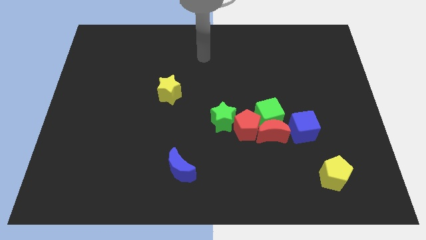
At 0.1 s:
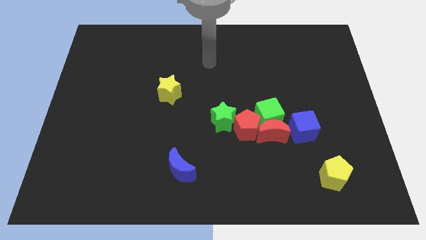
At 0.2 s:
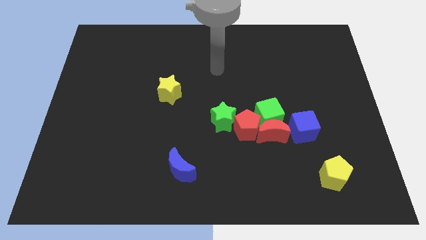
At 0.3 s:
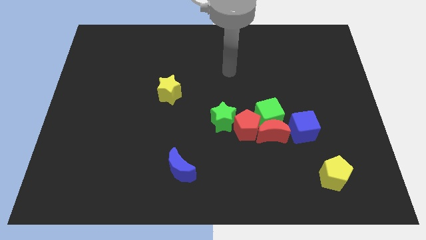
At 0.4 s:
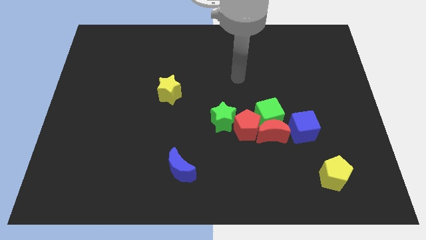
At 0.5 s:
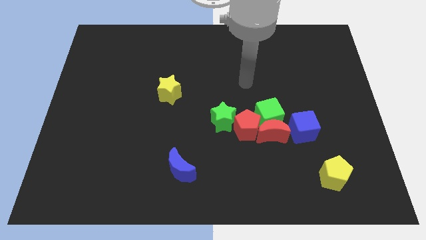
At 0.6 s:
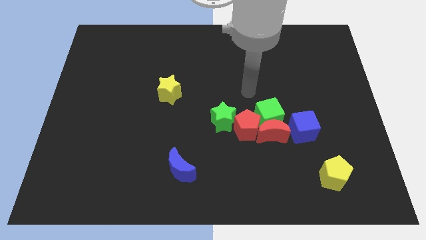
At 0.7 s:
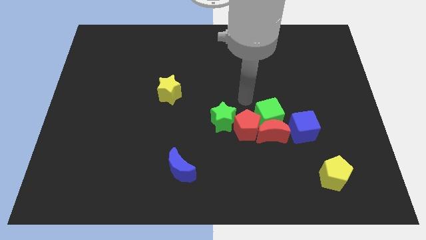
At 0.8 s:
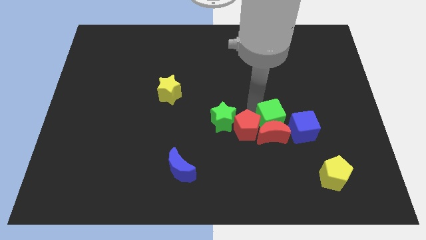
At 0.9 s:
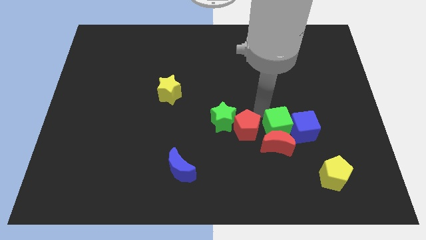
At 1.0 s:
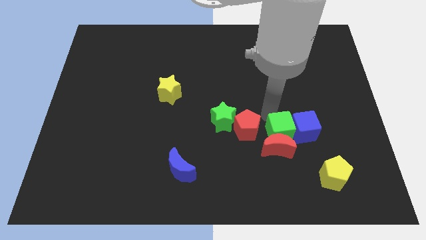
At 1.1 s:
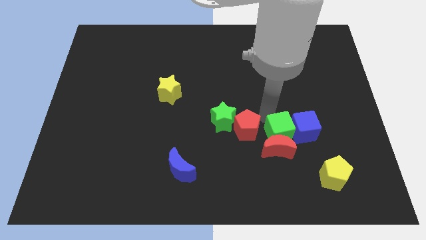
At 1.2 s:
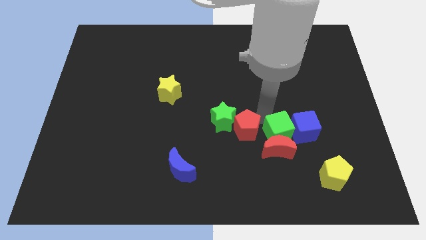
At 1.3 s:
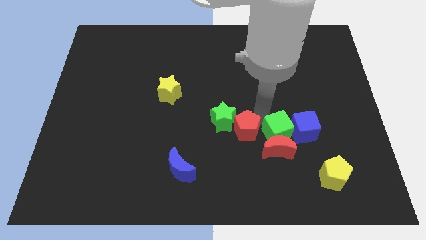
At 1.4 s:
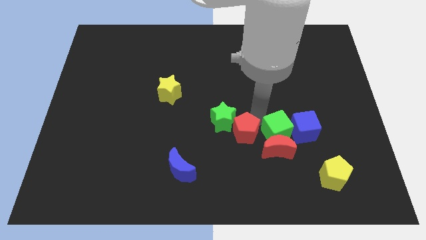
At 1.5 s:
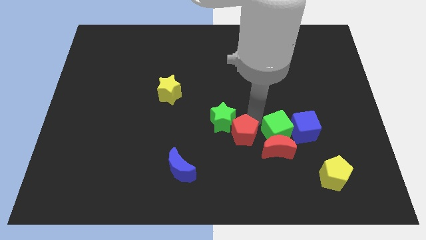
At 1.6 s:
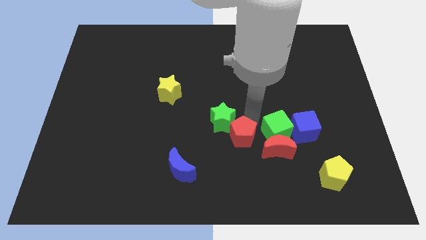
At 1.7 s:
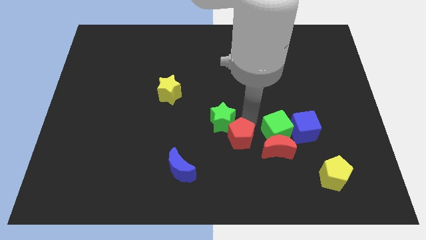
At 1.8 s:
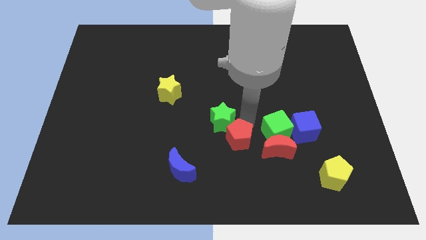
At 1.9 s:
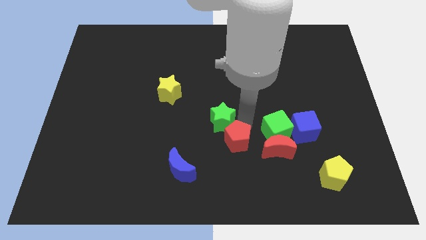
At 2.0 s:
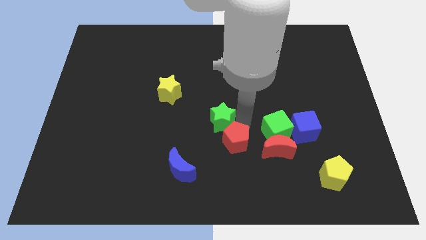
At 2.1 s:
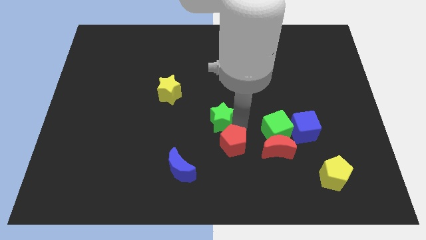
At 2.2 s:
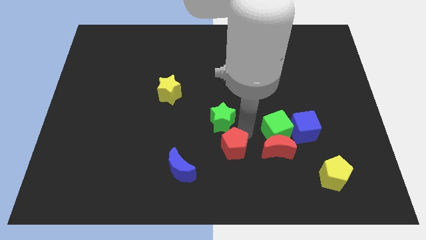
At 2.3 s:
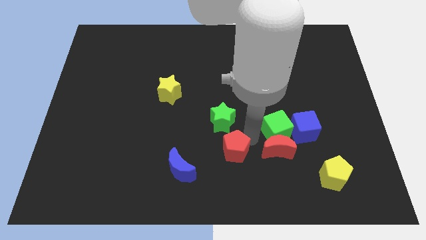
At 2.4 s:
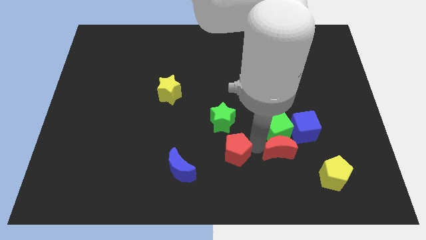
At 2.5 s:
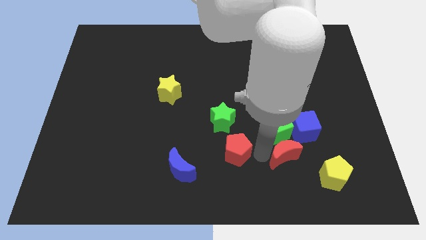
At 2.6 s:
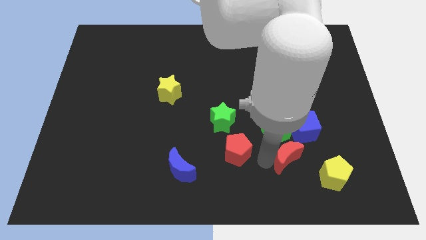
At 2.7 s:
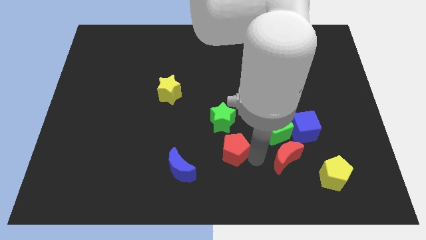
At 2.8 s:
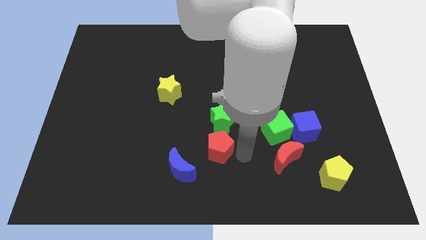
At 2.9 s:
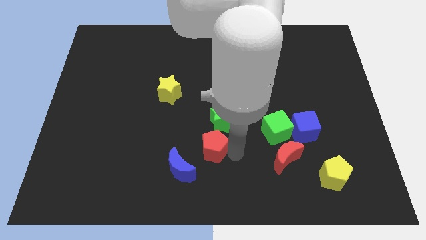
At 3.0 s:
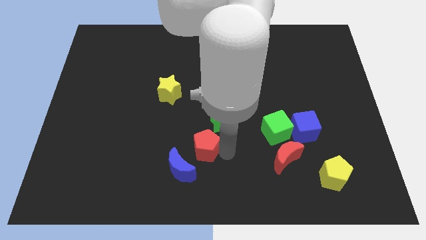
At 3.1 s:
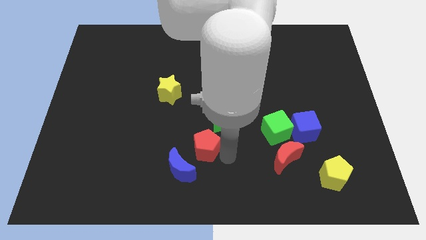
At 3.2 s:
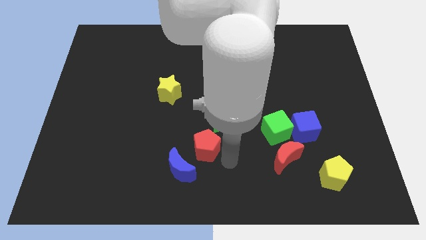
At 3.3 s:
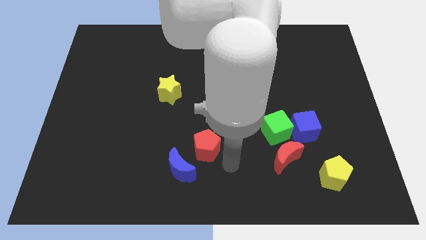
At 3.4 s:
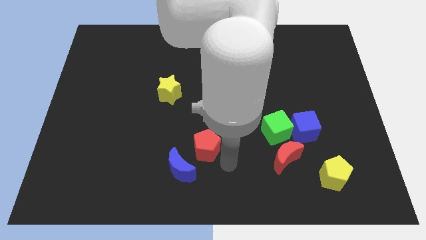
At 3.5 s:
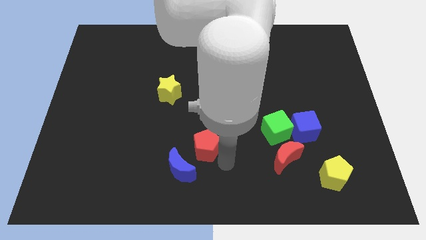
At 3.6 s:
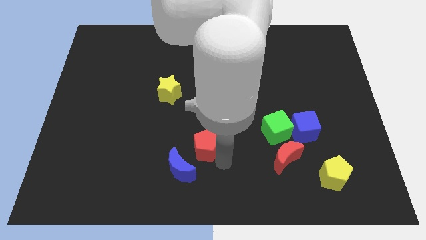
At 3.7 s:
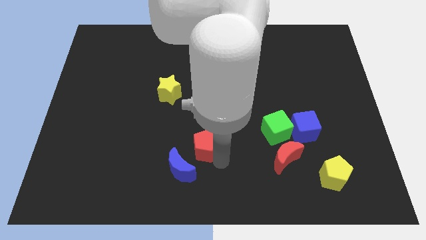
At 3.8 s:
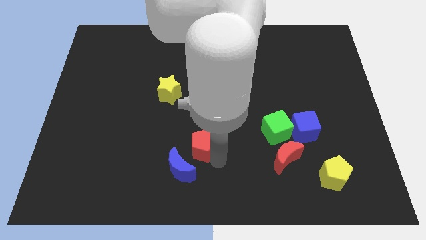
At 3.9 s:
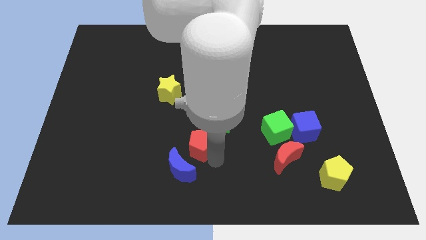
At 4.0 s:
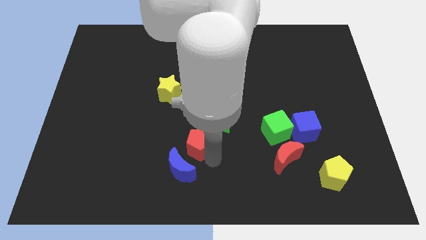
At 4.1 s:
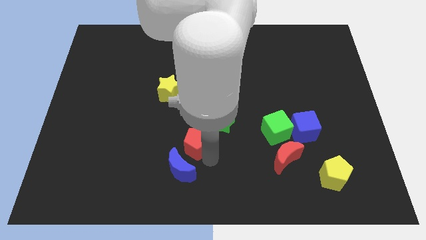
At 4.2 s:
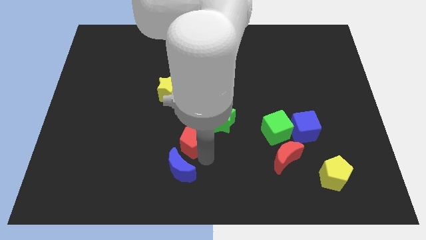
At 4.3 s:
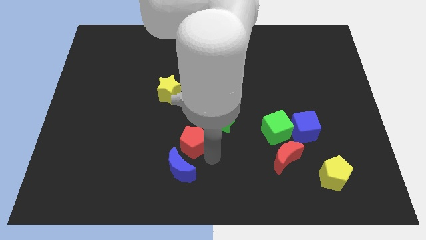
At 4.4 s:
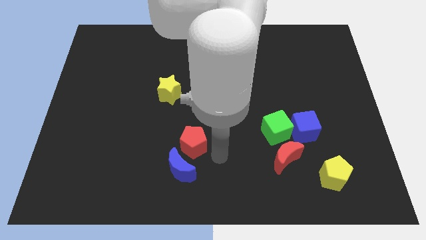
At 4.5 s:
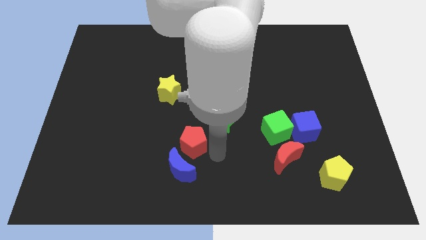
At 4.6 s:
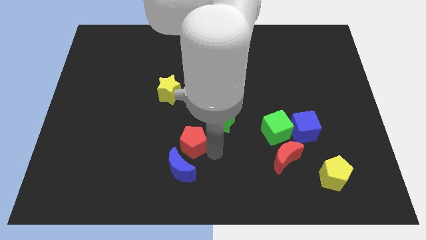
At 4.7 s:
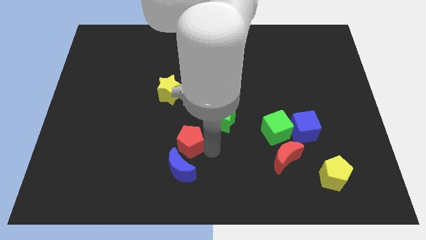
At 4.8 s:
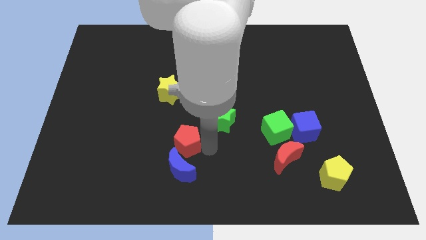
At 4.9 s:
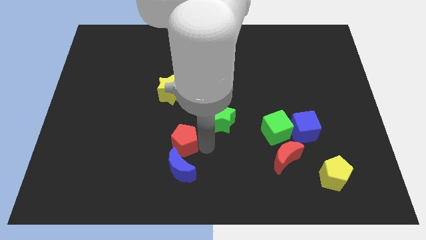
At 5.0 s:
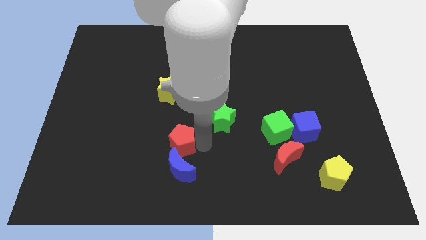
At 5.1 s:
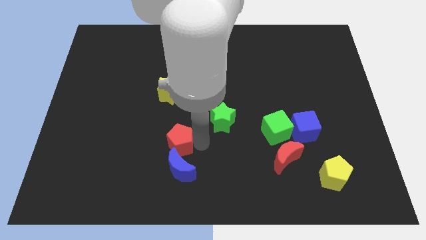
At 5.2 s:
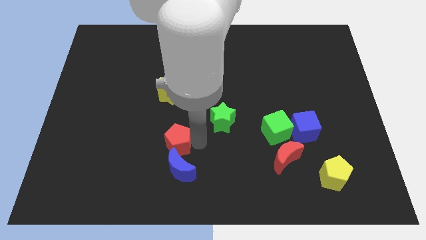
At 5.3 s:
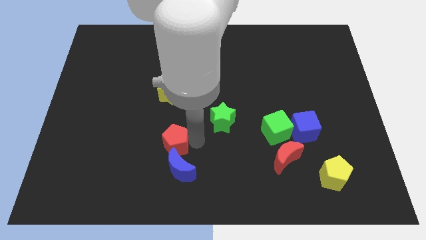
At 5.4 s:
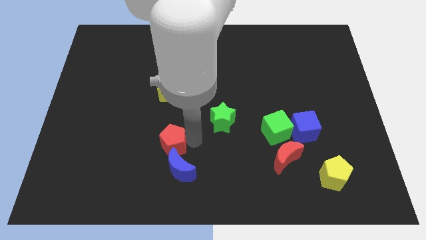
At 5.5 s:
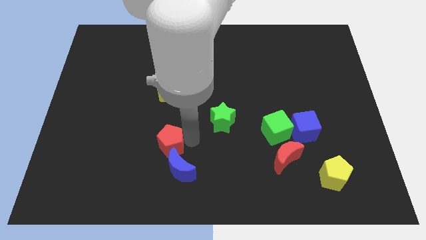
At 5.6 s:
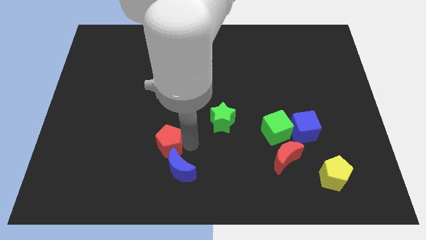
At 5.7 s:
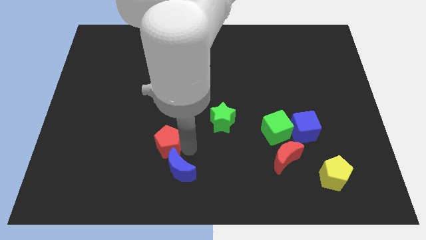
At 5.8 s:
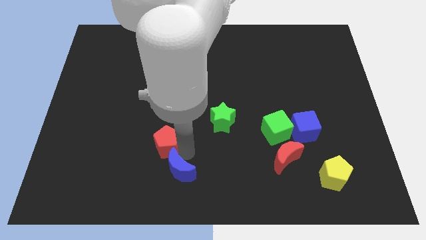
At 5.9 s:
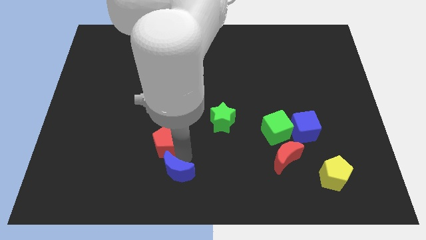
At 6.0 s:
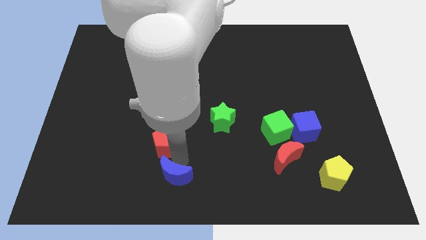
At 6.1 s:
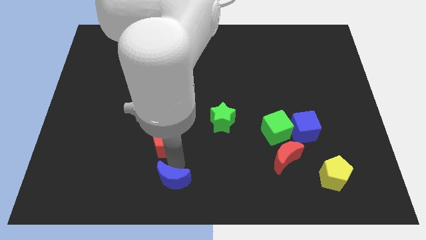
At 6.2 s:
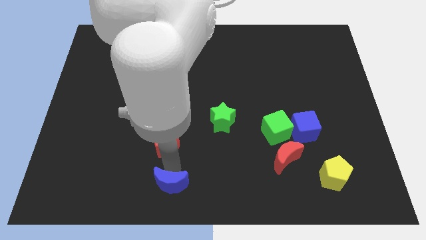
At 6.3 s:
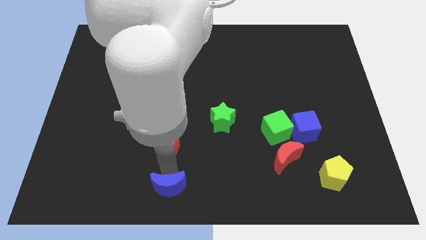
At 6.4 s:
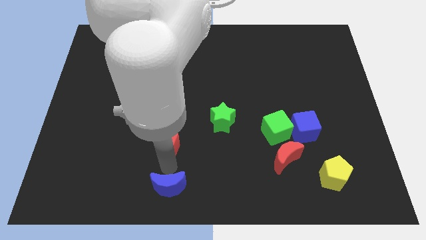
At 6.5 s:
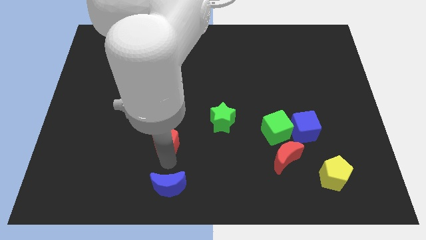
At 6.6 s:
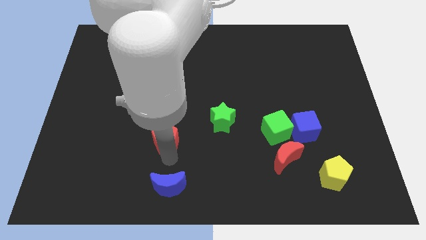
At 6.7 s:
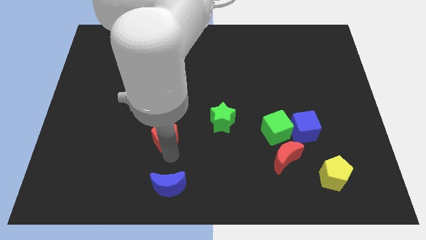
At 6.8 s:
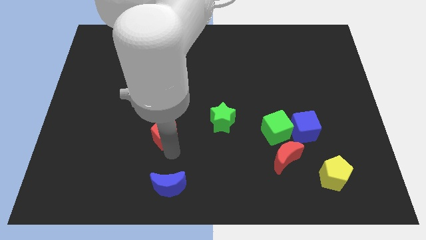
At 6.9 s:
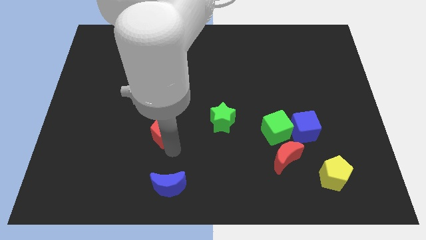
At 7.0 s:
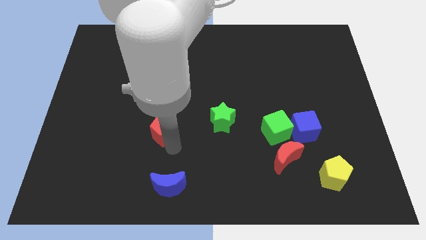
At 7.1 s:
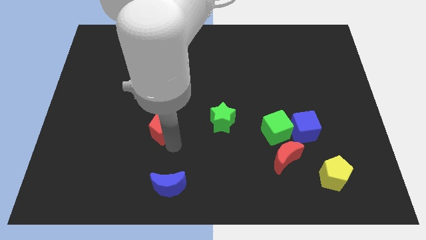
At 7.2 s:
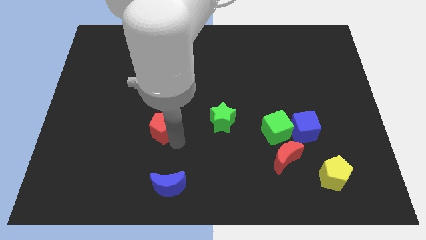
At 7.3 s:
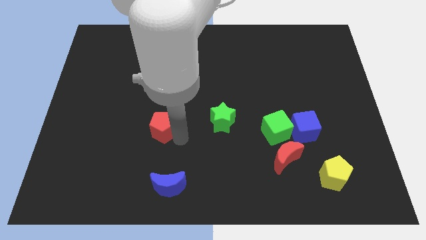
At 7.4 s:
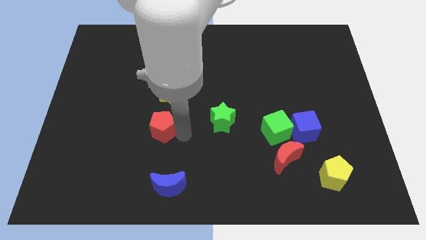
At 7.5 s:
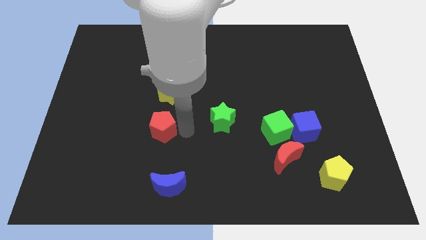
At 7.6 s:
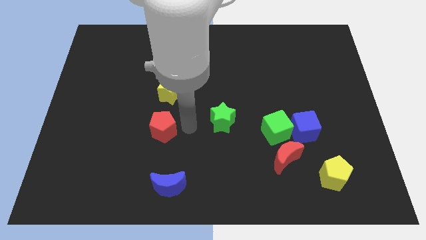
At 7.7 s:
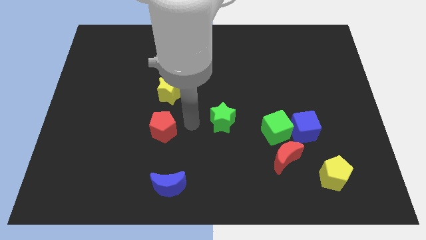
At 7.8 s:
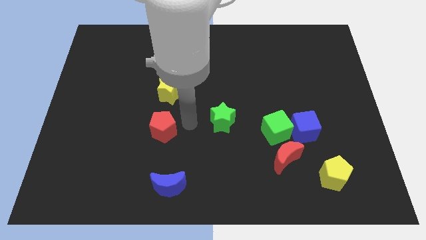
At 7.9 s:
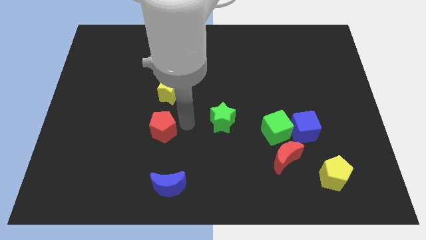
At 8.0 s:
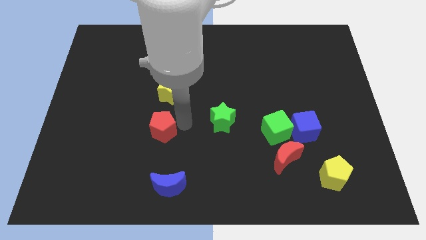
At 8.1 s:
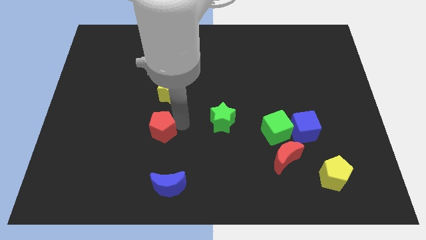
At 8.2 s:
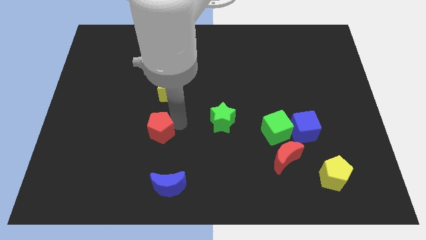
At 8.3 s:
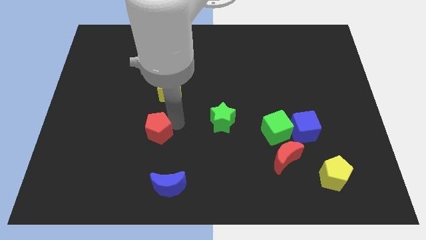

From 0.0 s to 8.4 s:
slide the red pentagon to the left
